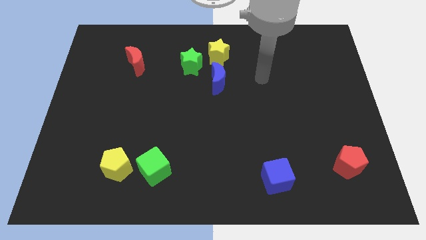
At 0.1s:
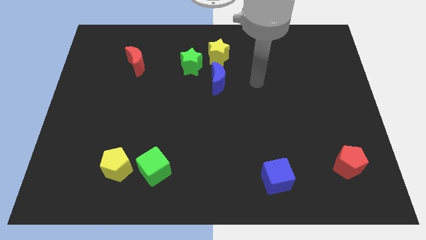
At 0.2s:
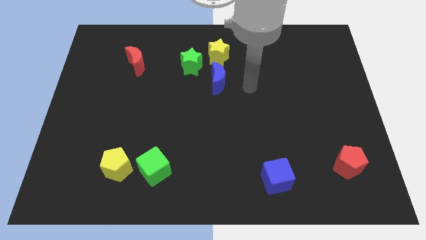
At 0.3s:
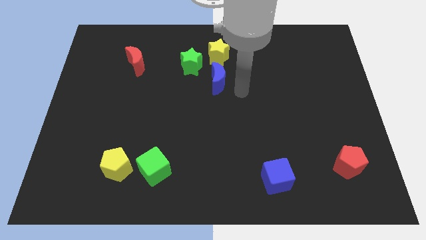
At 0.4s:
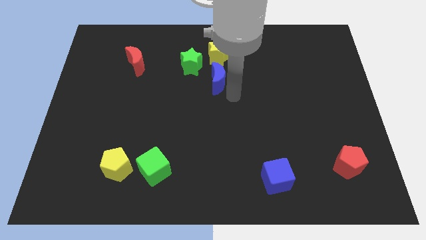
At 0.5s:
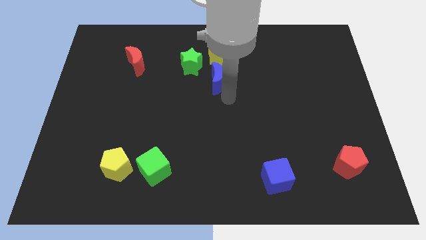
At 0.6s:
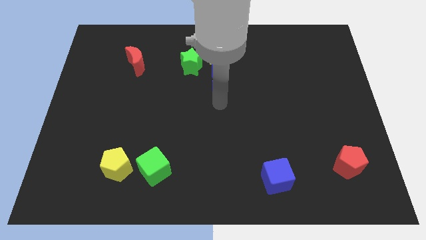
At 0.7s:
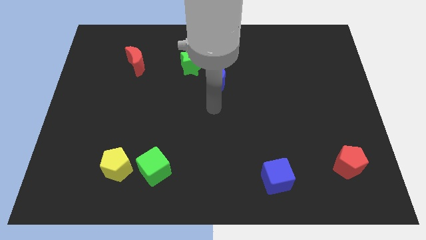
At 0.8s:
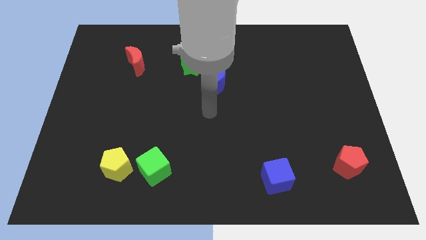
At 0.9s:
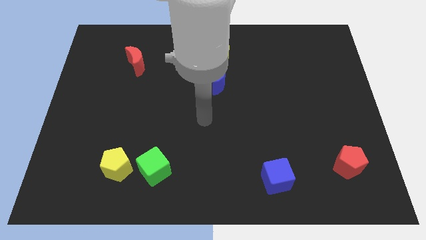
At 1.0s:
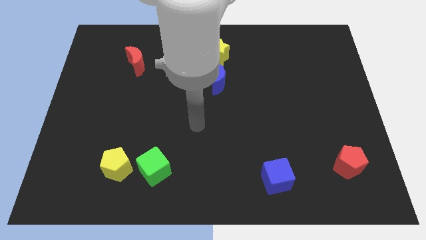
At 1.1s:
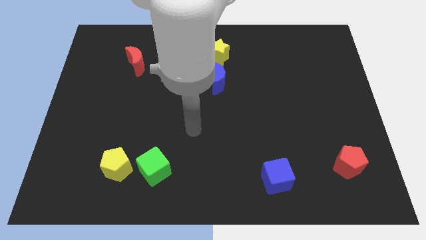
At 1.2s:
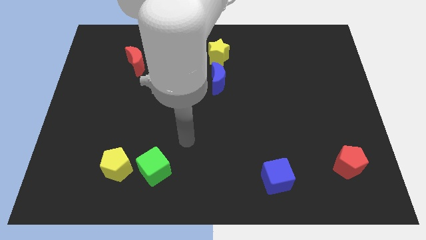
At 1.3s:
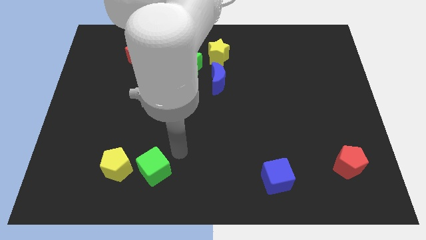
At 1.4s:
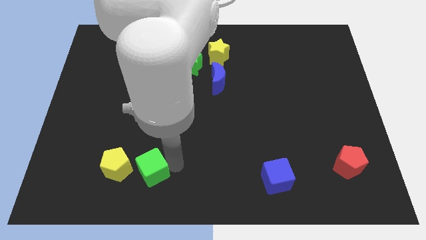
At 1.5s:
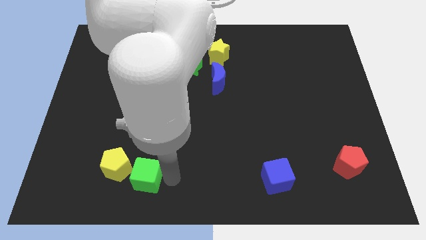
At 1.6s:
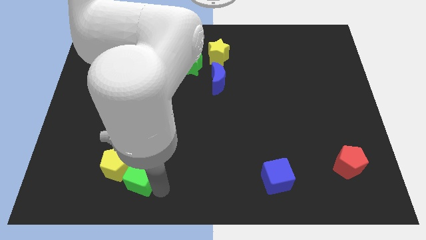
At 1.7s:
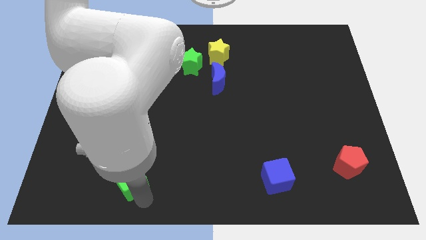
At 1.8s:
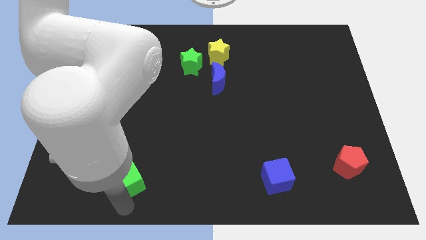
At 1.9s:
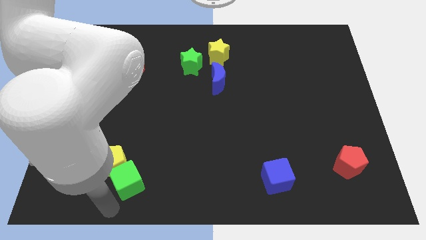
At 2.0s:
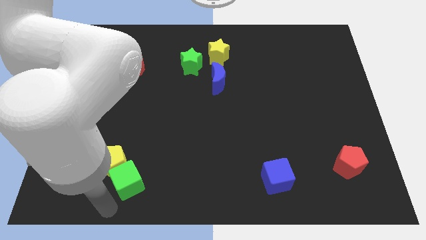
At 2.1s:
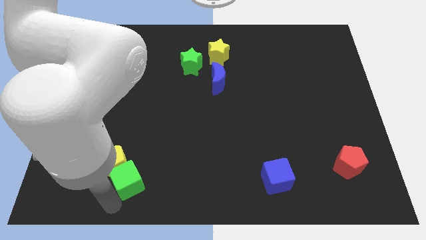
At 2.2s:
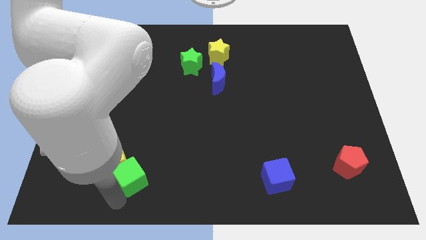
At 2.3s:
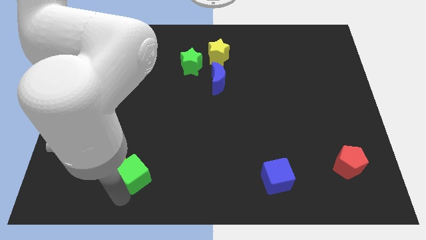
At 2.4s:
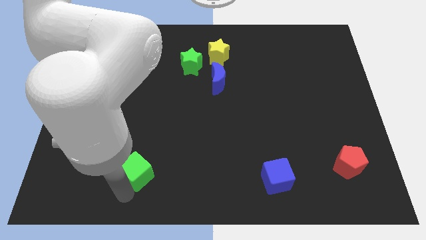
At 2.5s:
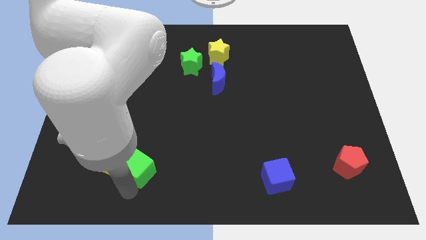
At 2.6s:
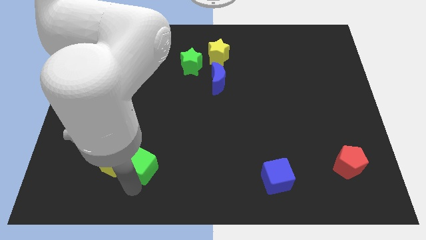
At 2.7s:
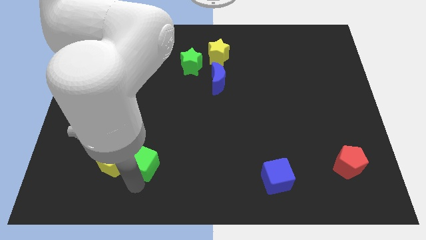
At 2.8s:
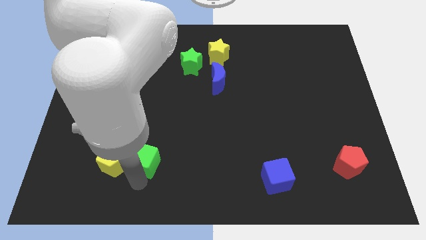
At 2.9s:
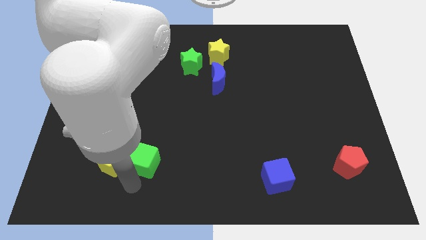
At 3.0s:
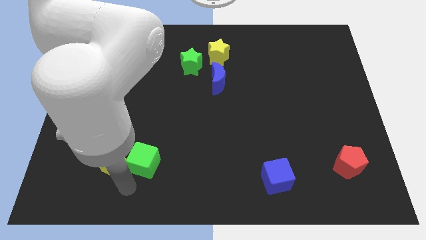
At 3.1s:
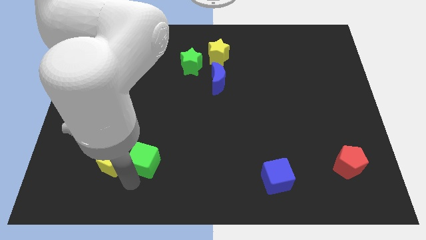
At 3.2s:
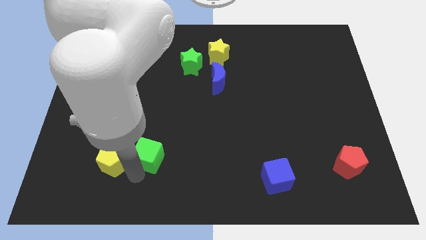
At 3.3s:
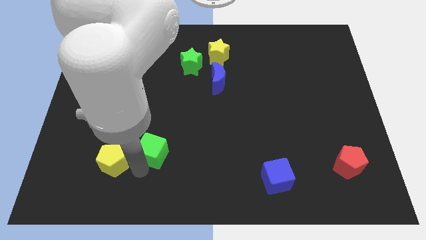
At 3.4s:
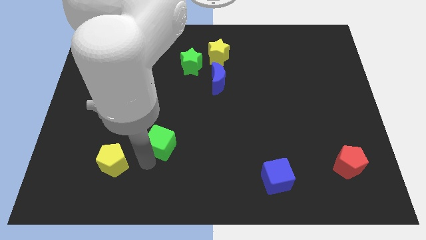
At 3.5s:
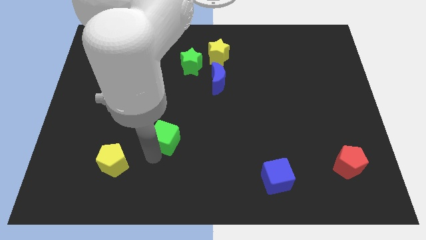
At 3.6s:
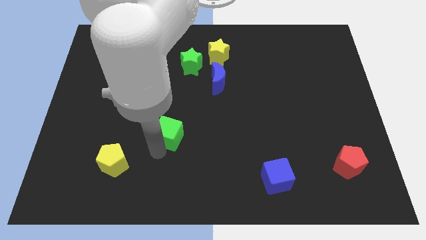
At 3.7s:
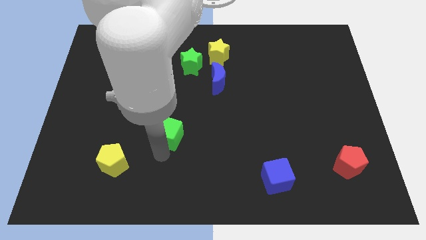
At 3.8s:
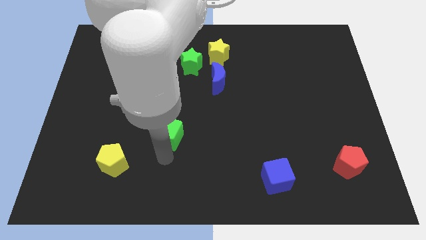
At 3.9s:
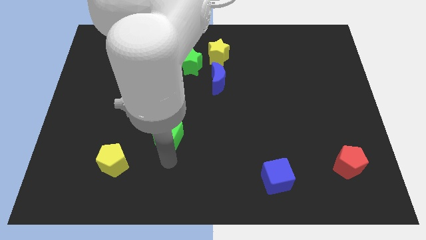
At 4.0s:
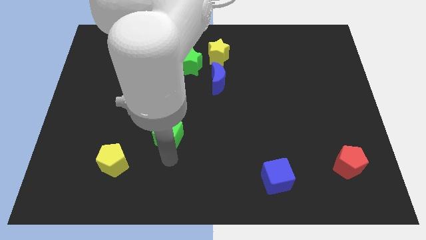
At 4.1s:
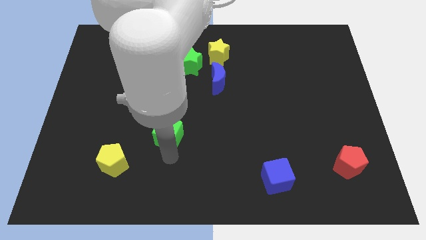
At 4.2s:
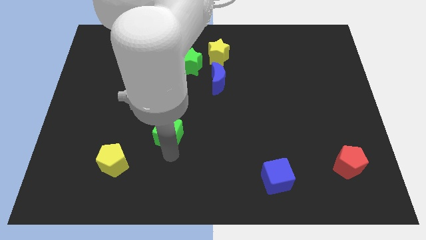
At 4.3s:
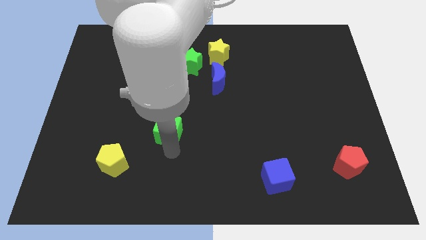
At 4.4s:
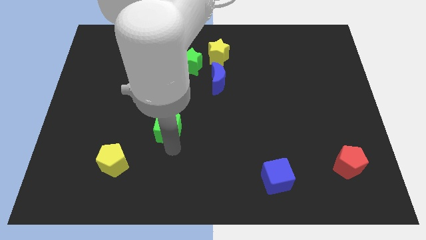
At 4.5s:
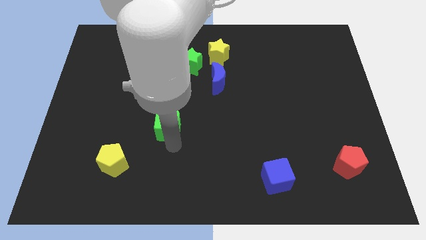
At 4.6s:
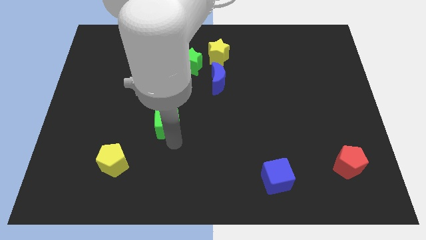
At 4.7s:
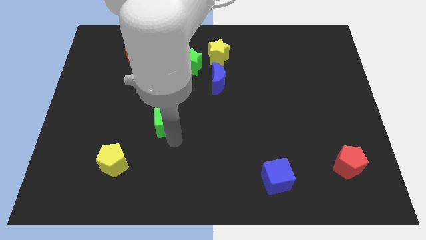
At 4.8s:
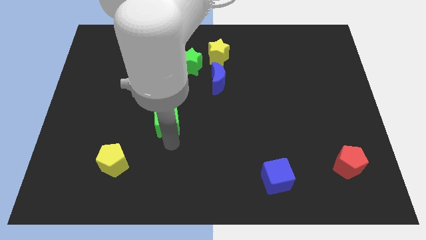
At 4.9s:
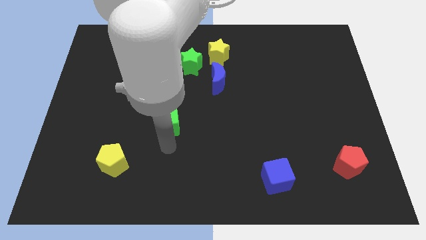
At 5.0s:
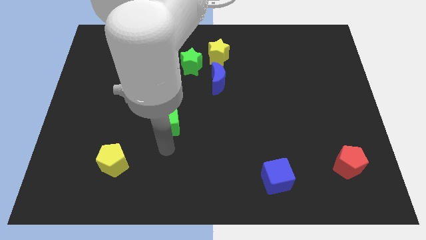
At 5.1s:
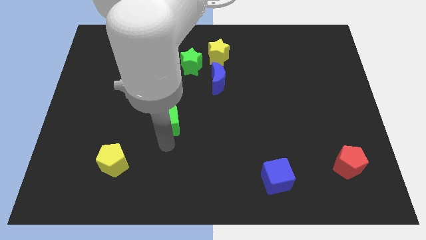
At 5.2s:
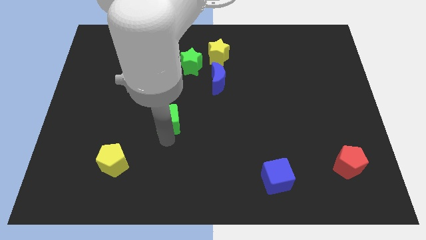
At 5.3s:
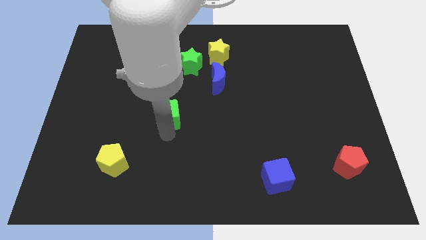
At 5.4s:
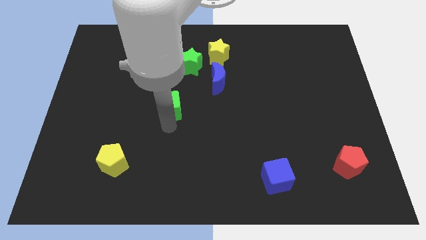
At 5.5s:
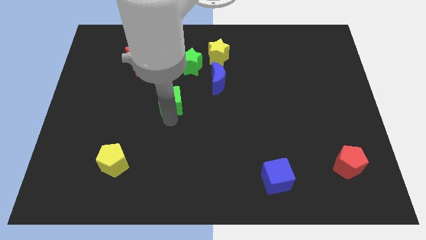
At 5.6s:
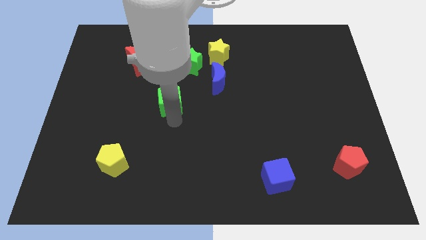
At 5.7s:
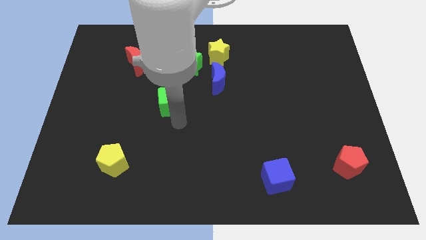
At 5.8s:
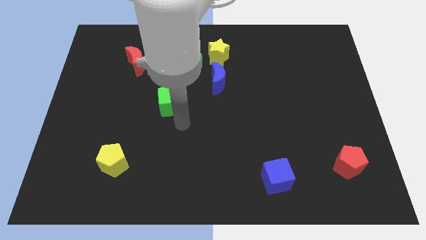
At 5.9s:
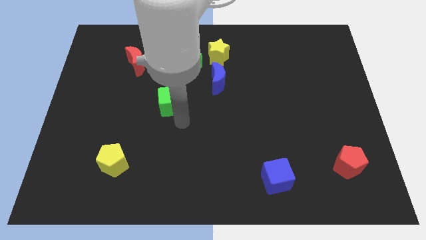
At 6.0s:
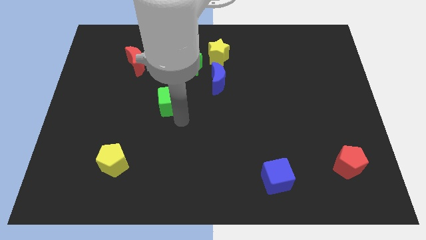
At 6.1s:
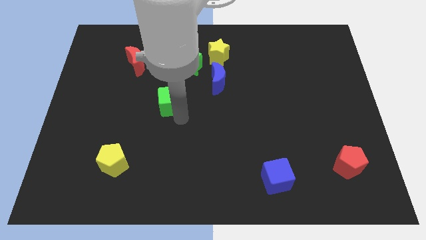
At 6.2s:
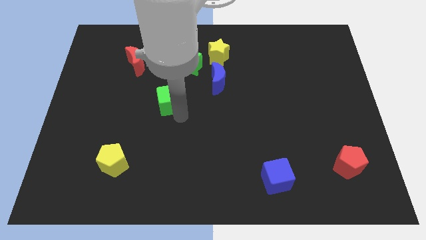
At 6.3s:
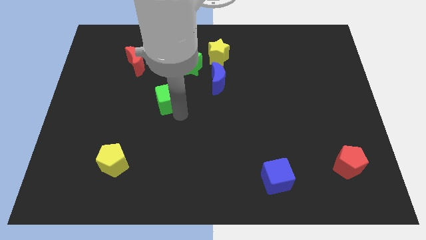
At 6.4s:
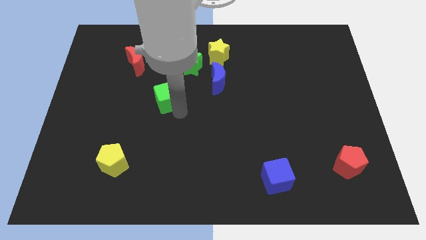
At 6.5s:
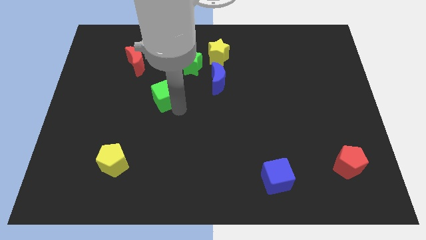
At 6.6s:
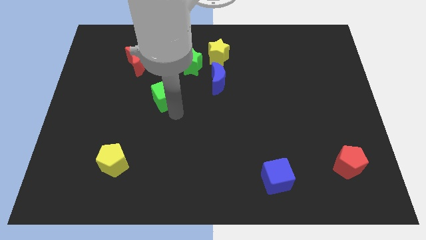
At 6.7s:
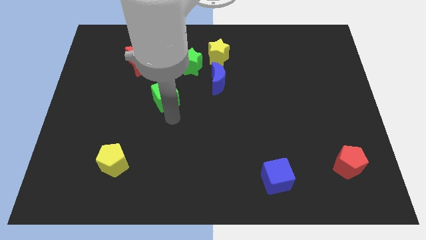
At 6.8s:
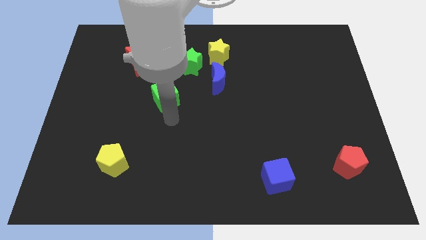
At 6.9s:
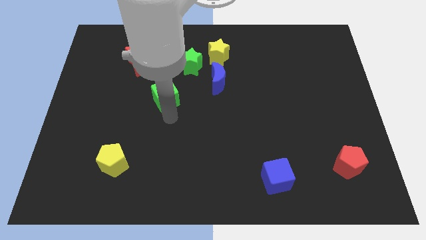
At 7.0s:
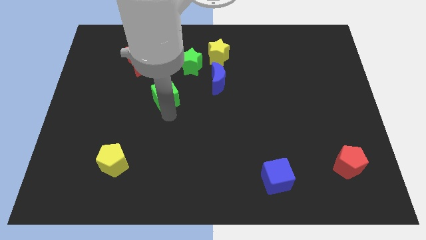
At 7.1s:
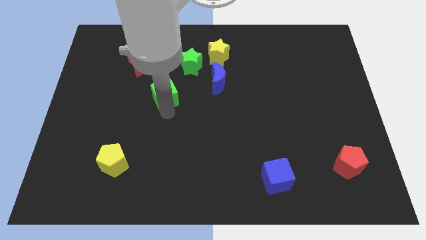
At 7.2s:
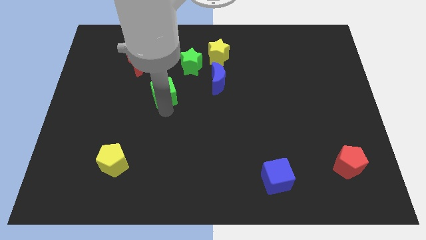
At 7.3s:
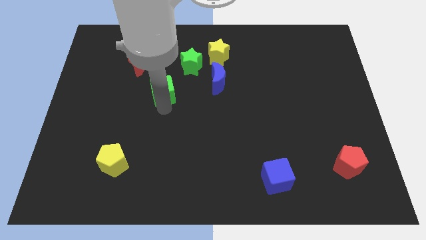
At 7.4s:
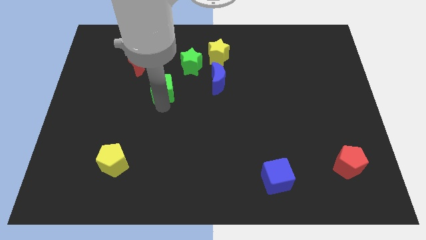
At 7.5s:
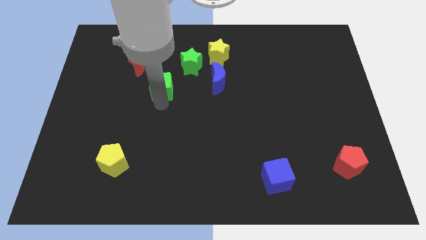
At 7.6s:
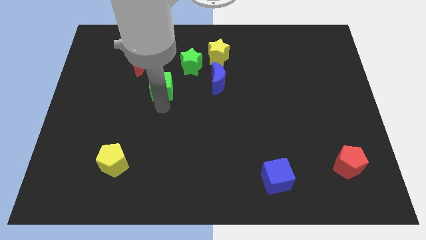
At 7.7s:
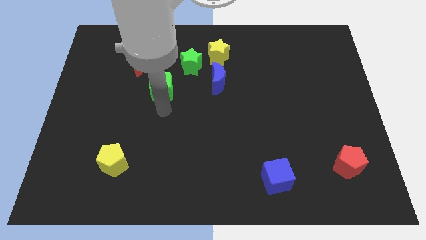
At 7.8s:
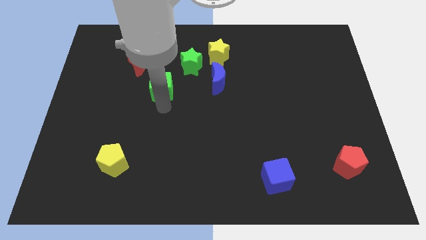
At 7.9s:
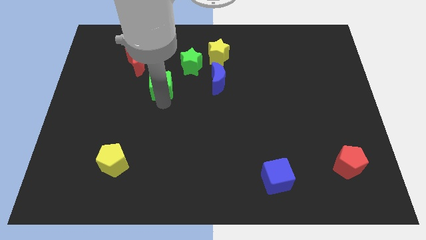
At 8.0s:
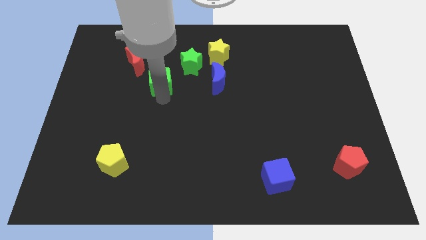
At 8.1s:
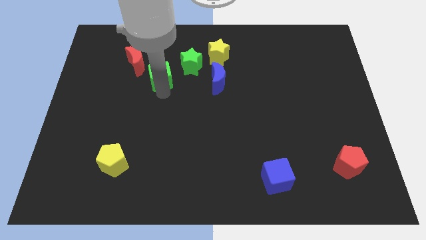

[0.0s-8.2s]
slide the green cube to the left of the green star
